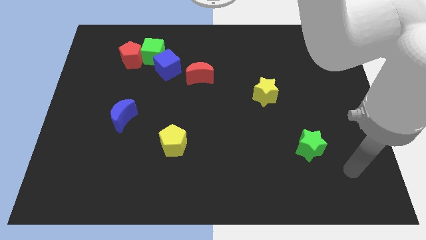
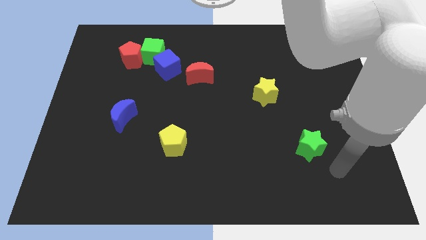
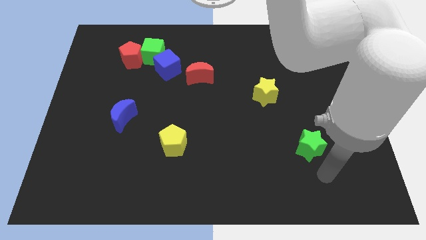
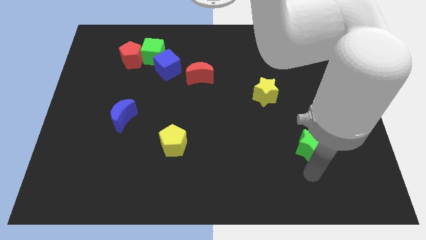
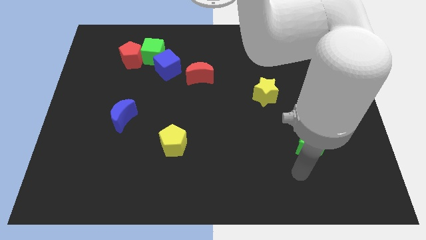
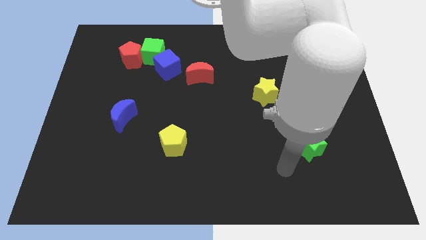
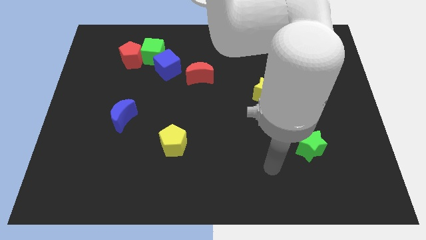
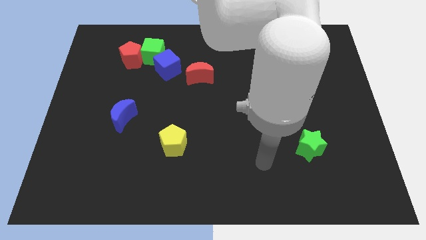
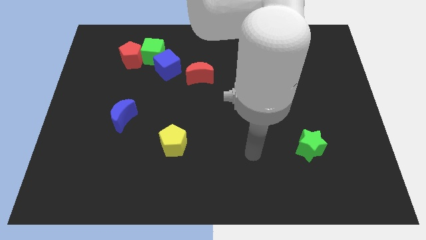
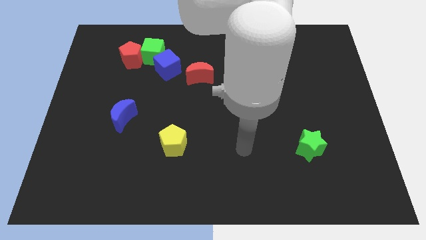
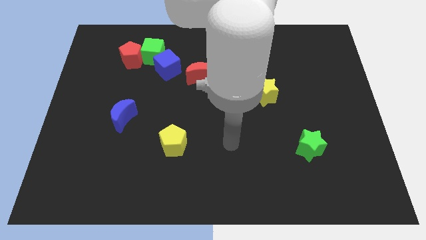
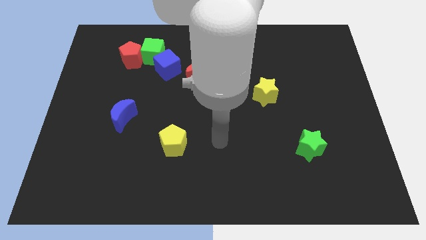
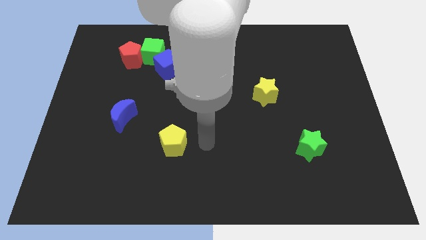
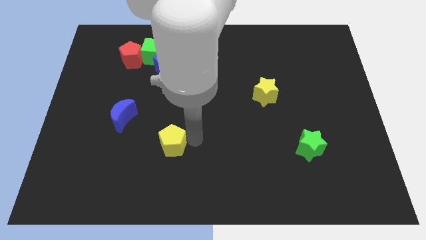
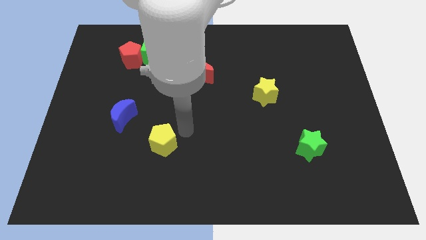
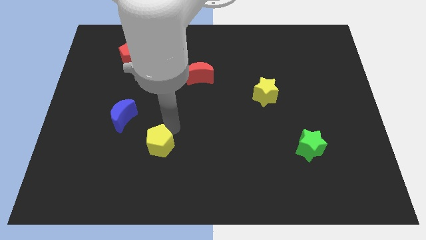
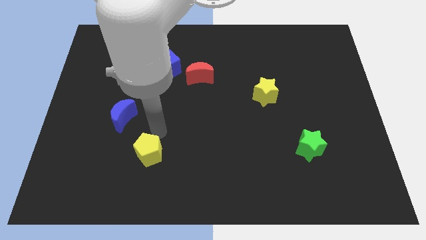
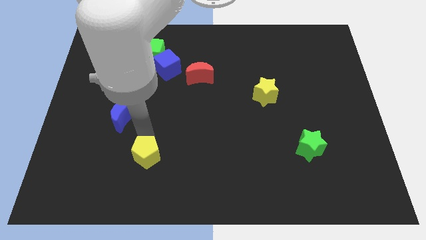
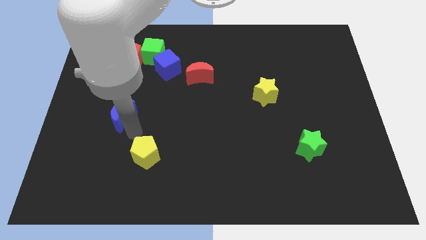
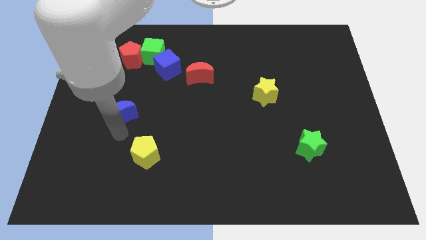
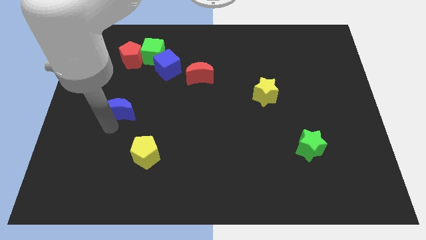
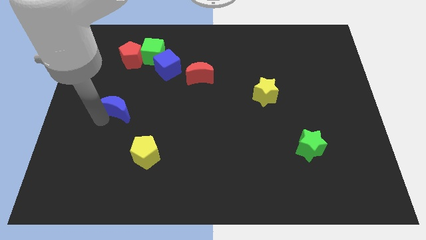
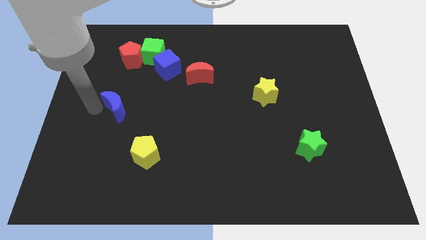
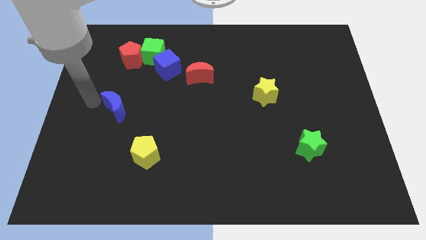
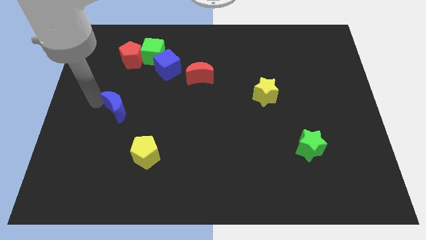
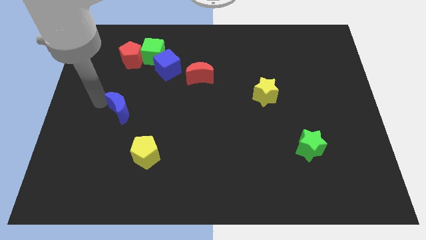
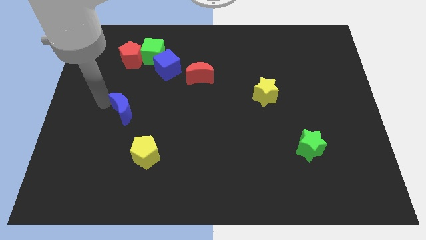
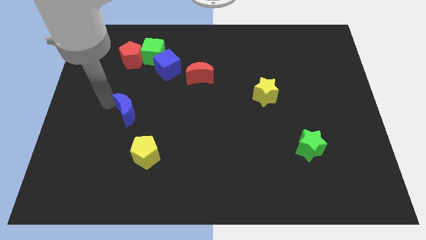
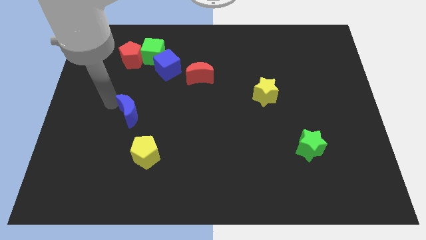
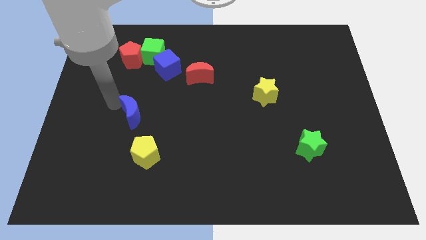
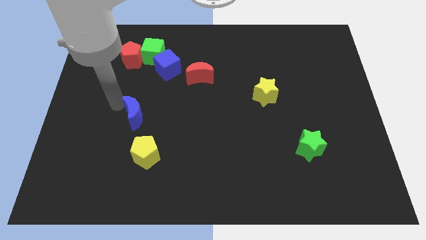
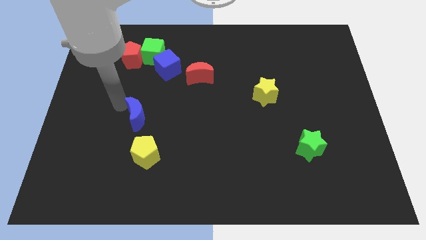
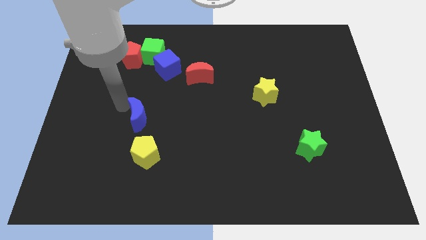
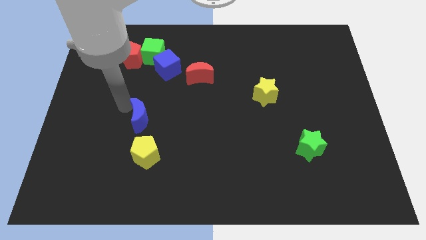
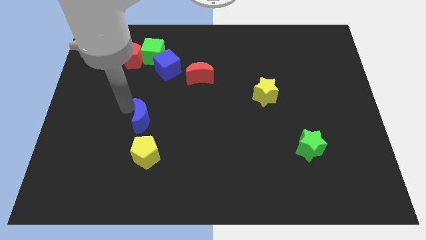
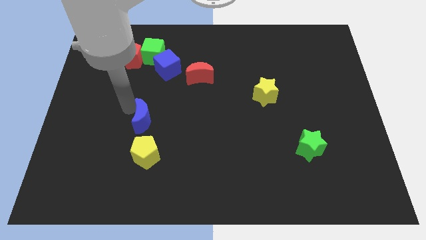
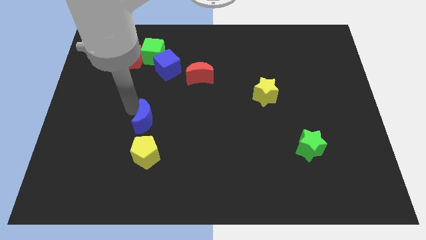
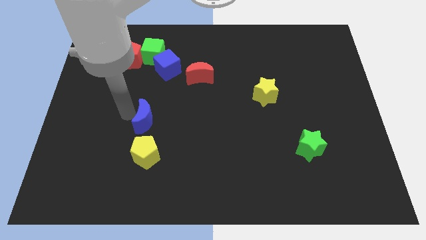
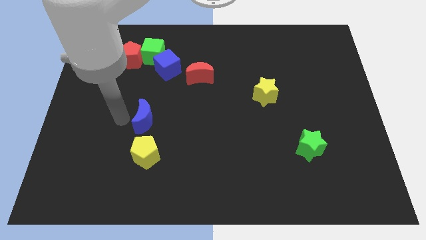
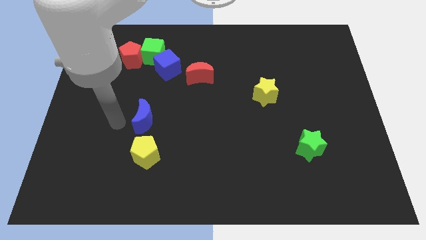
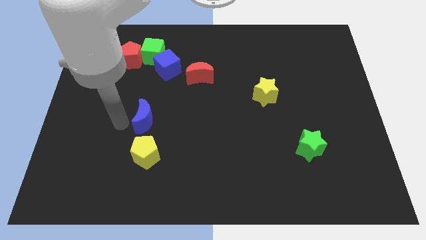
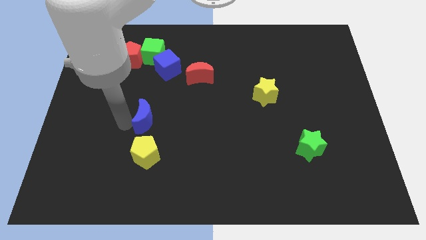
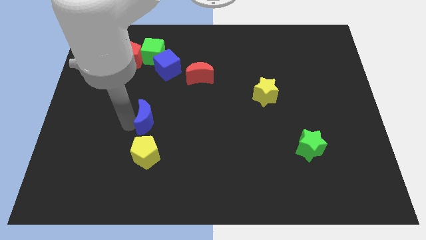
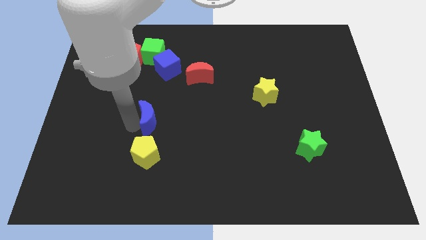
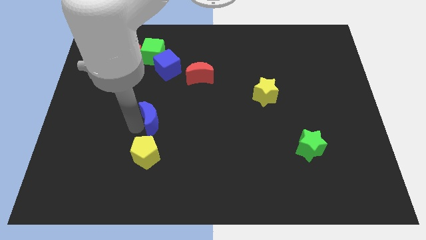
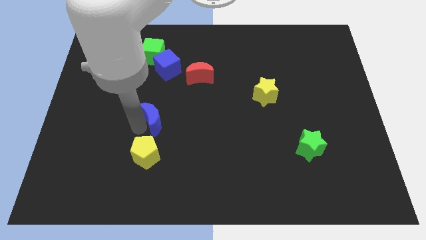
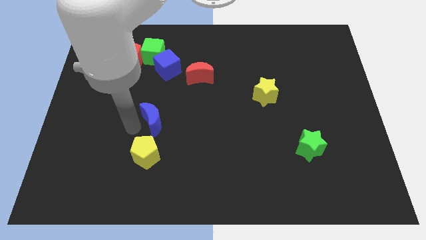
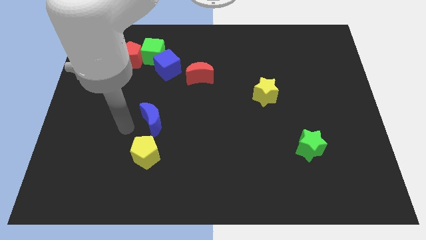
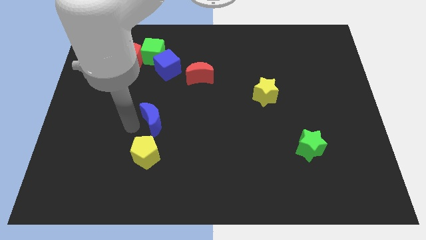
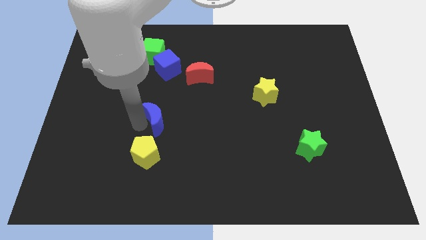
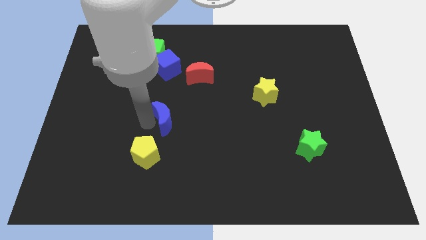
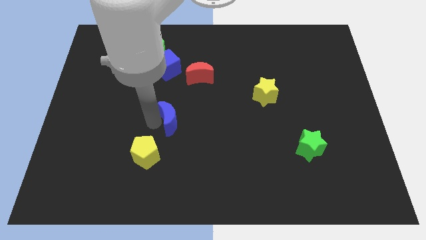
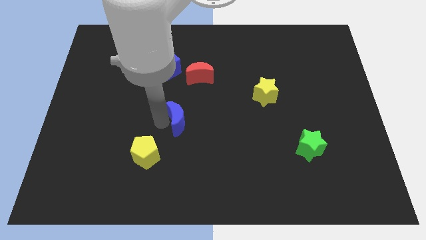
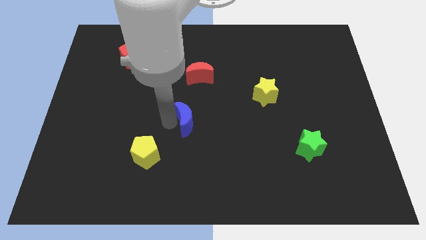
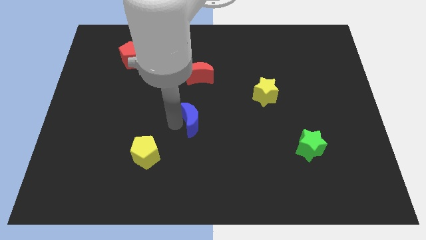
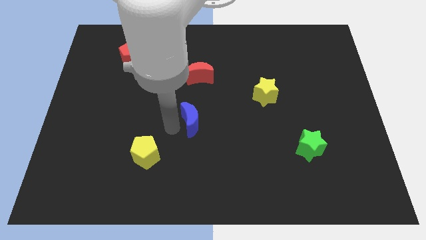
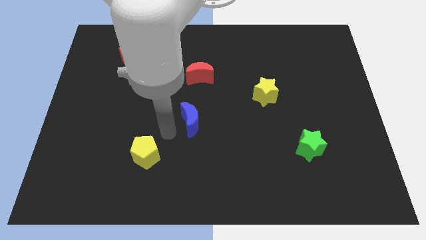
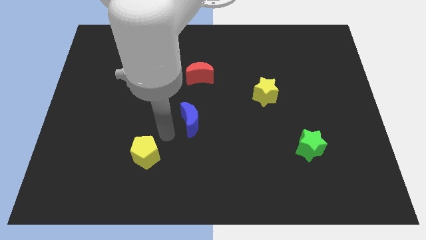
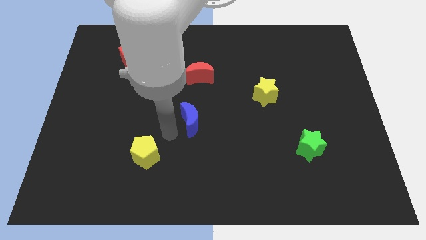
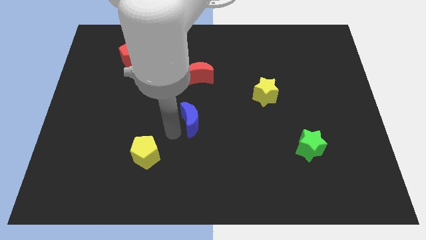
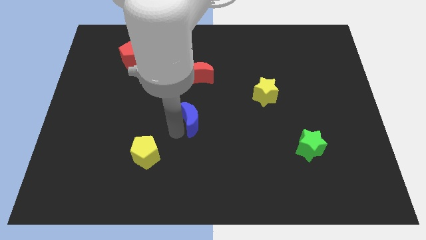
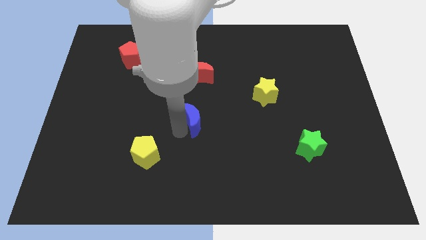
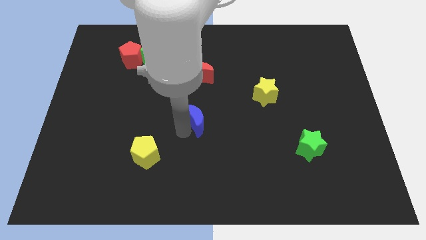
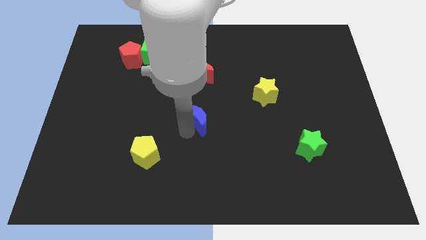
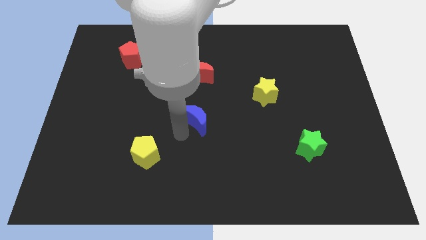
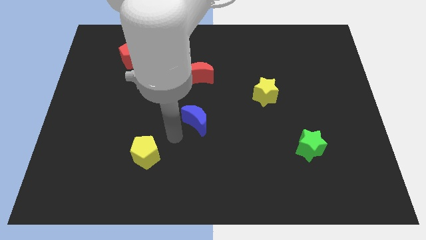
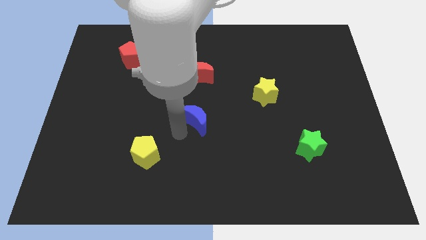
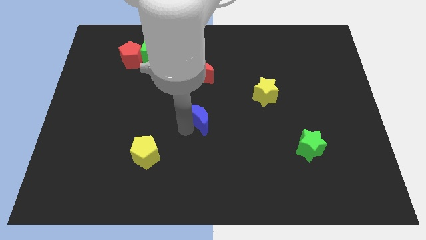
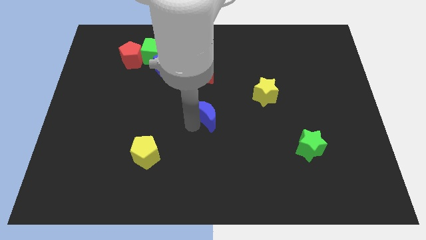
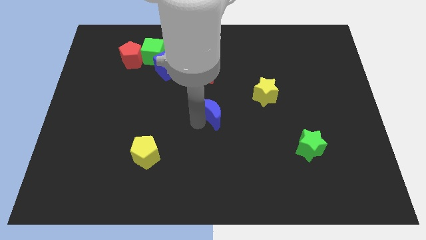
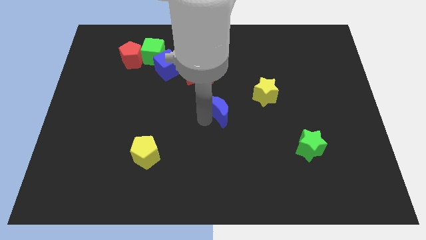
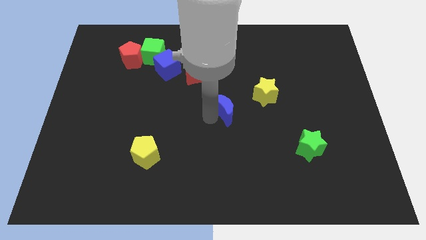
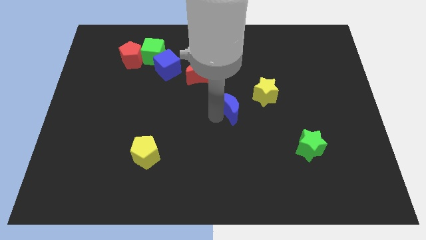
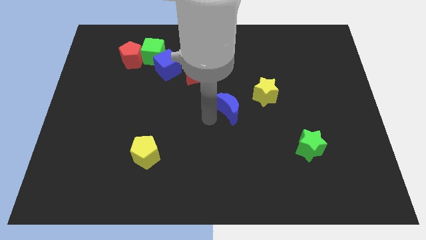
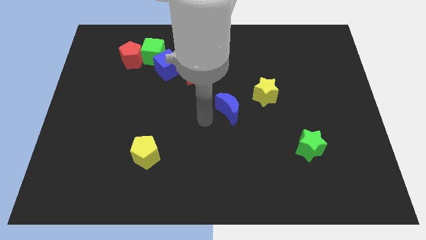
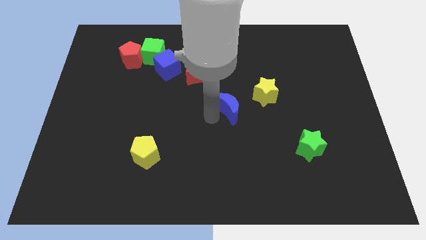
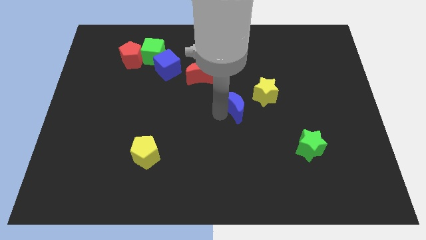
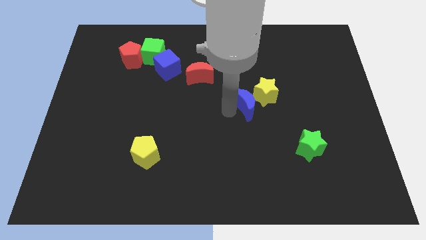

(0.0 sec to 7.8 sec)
put the blue moon next to the yellow star
